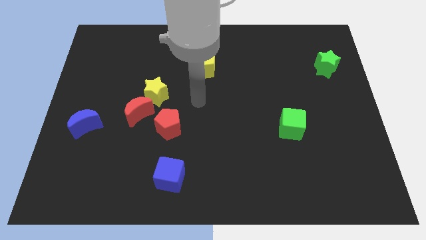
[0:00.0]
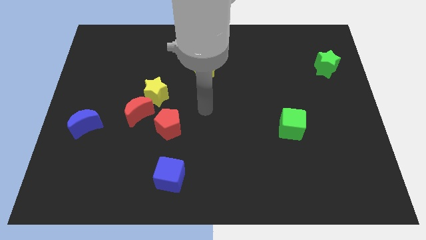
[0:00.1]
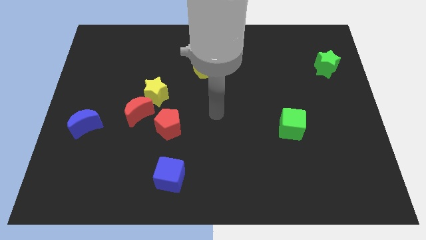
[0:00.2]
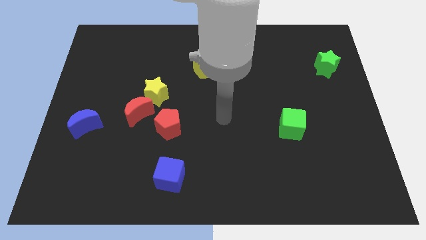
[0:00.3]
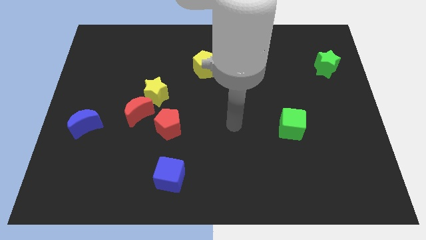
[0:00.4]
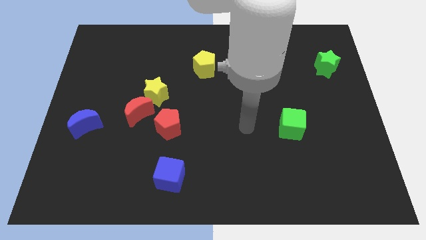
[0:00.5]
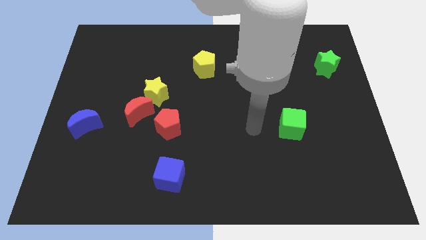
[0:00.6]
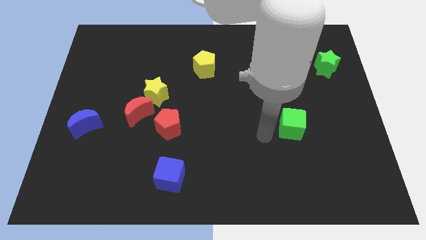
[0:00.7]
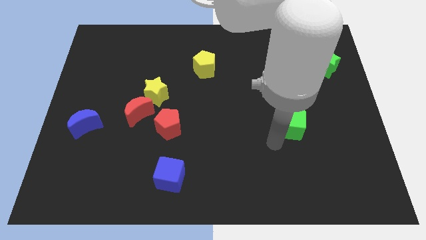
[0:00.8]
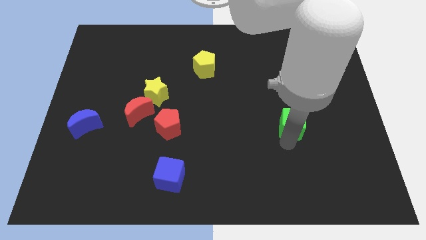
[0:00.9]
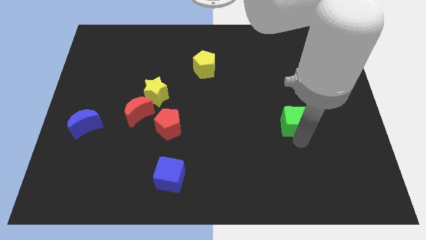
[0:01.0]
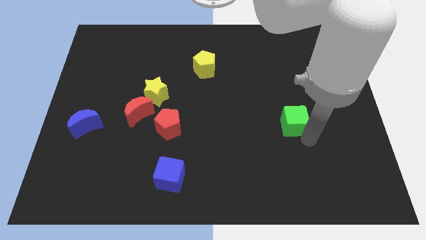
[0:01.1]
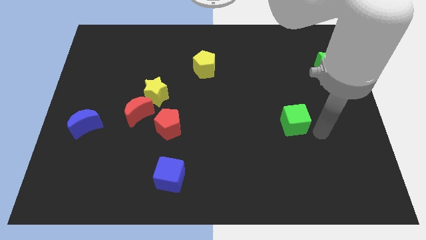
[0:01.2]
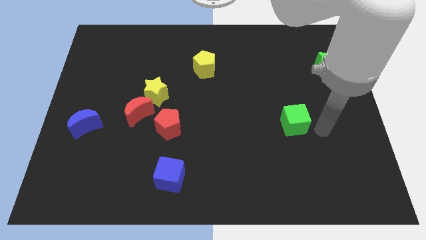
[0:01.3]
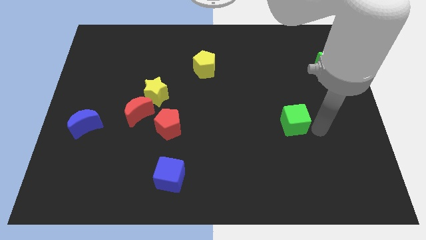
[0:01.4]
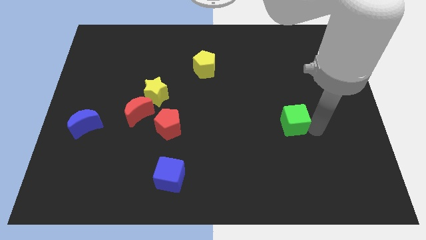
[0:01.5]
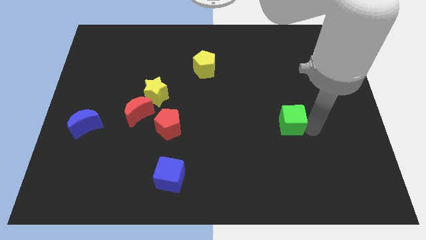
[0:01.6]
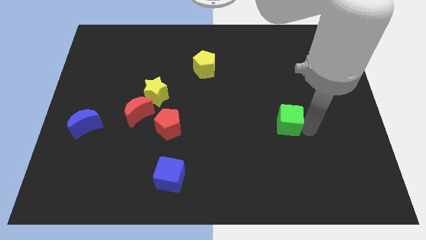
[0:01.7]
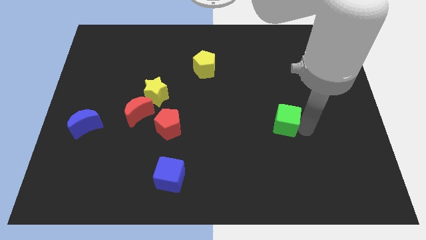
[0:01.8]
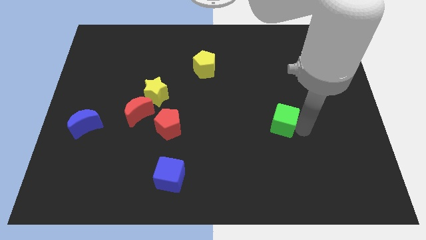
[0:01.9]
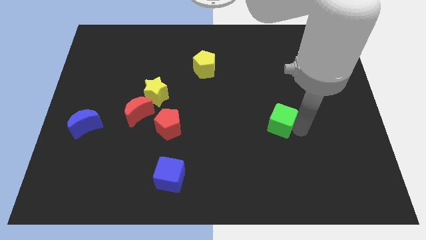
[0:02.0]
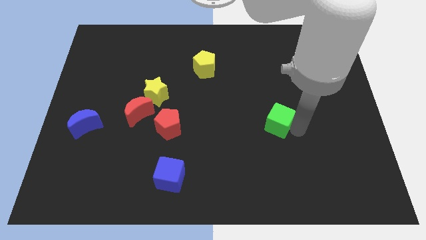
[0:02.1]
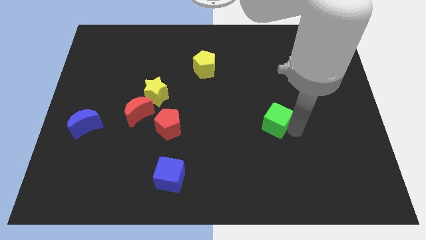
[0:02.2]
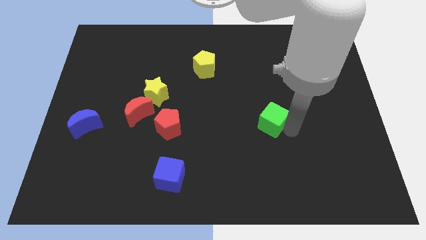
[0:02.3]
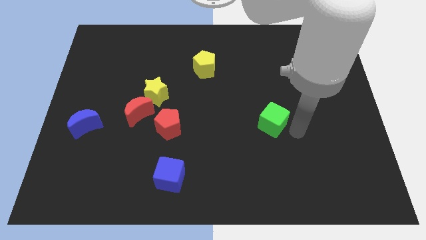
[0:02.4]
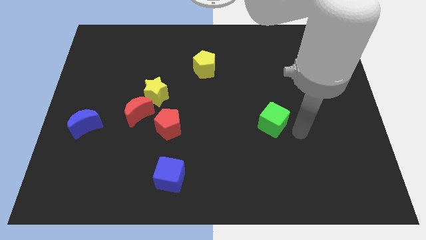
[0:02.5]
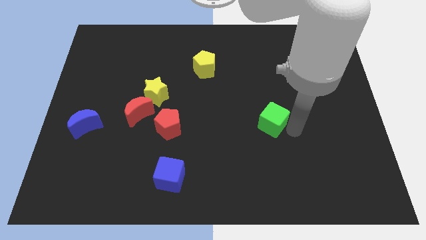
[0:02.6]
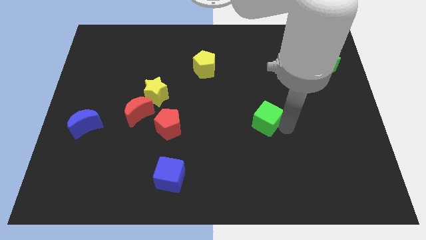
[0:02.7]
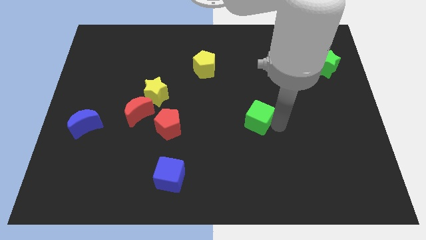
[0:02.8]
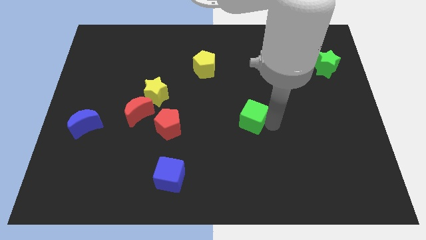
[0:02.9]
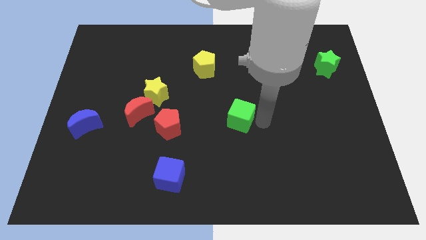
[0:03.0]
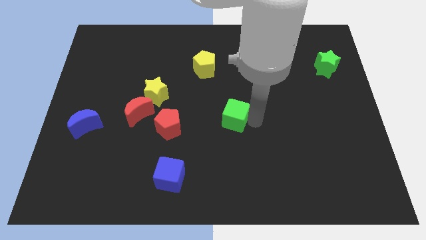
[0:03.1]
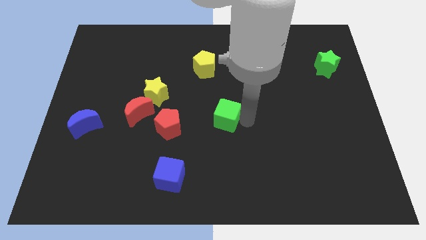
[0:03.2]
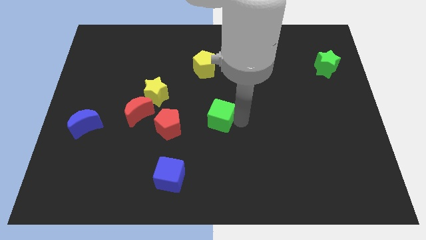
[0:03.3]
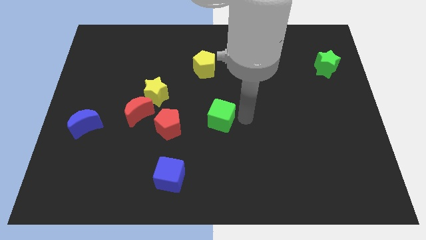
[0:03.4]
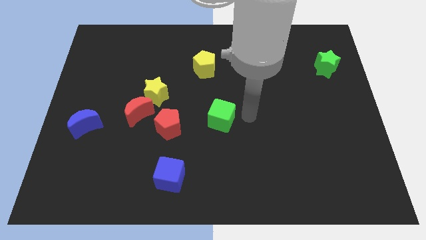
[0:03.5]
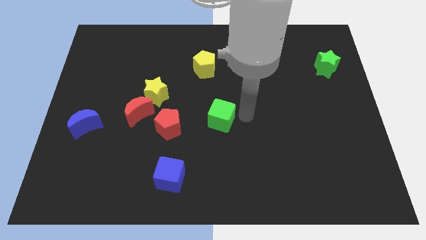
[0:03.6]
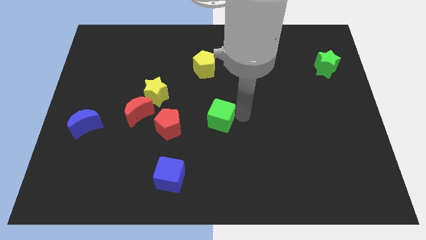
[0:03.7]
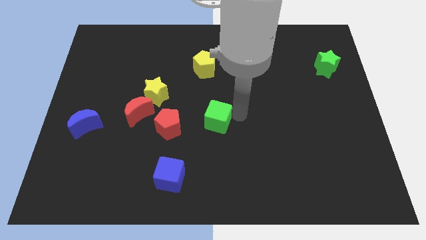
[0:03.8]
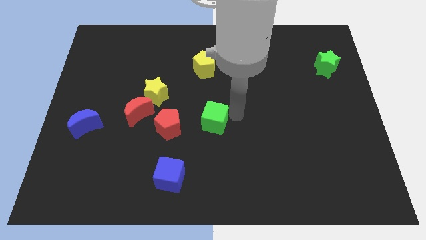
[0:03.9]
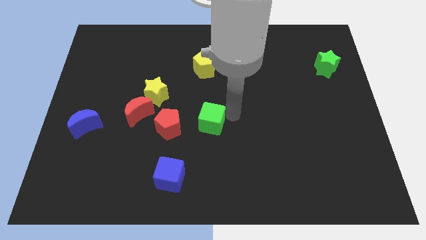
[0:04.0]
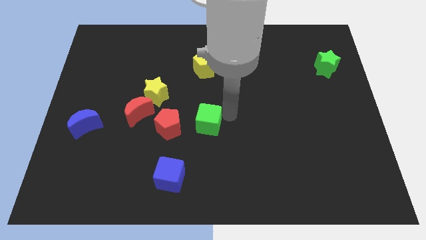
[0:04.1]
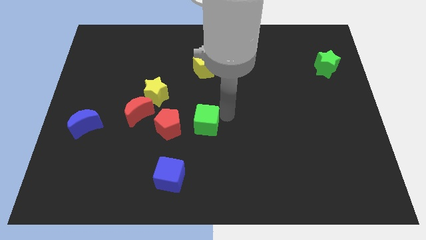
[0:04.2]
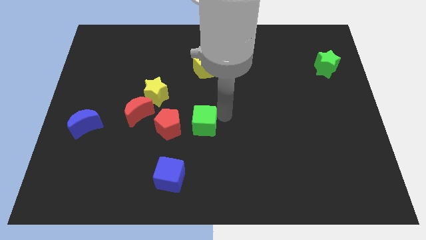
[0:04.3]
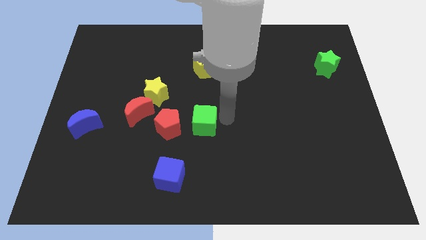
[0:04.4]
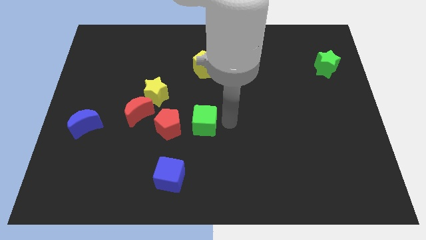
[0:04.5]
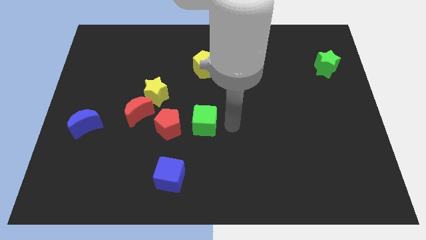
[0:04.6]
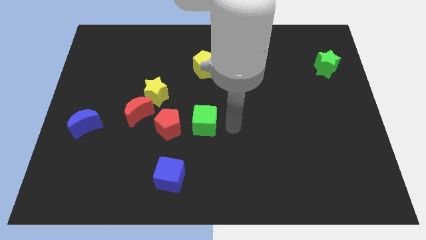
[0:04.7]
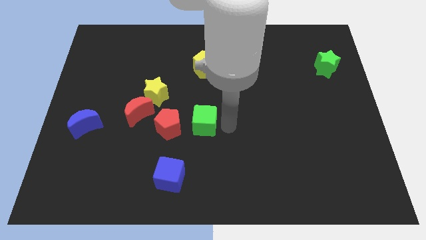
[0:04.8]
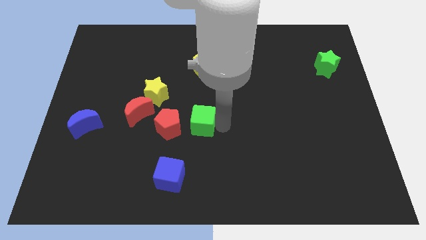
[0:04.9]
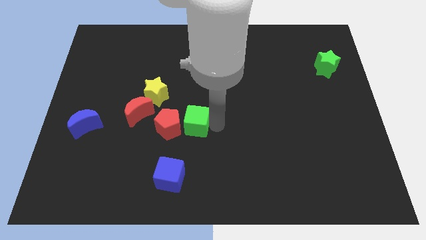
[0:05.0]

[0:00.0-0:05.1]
move the green cube next to the red pentagon

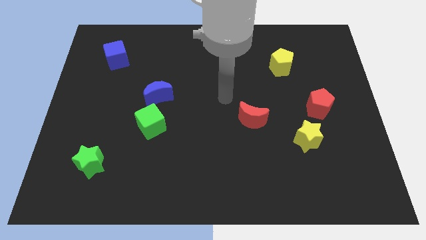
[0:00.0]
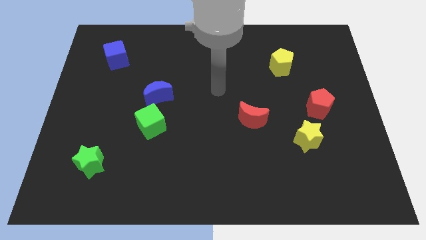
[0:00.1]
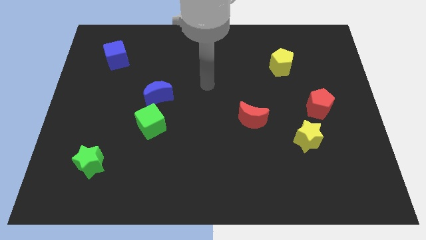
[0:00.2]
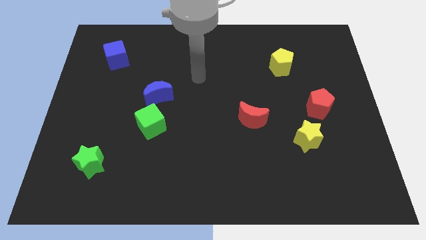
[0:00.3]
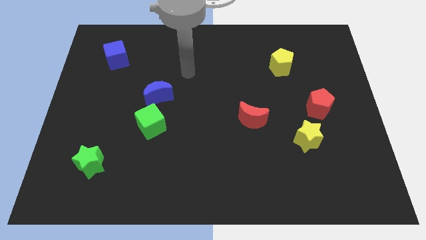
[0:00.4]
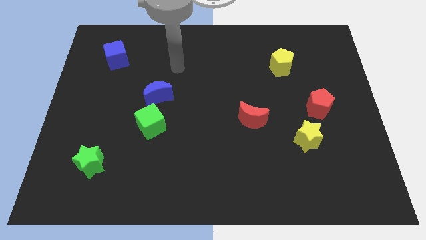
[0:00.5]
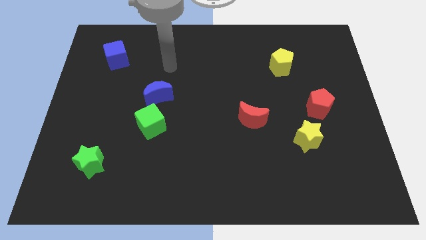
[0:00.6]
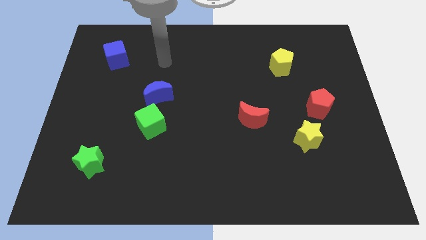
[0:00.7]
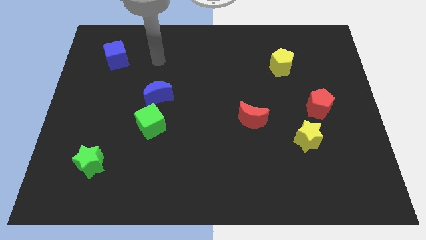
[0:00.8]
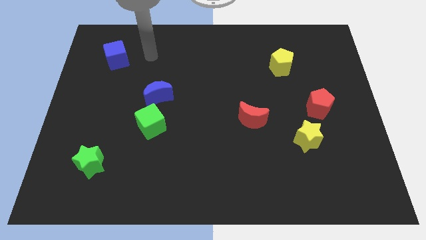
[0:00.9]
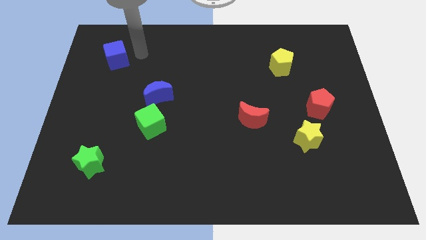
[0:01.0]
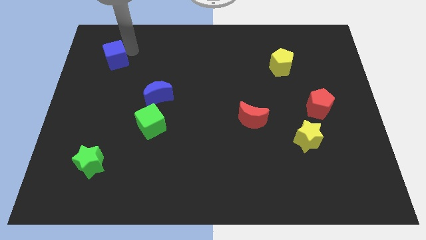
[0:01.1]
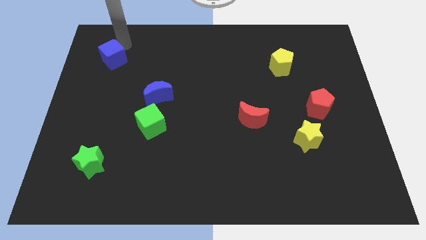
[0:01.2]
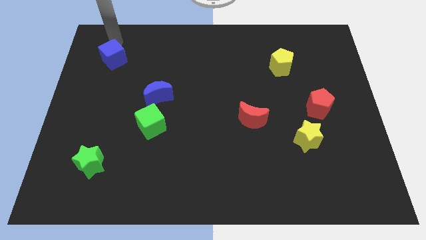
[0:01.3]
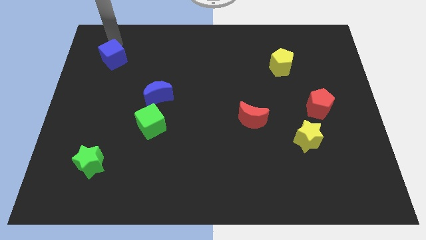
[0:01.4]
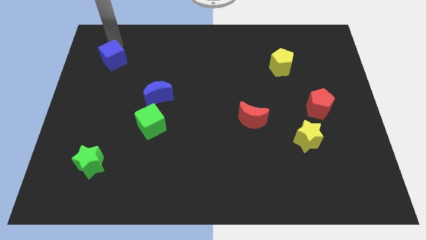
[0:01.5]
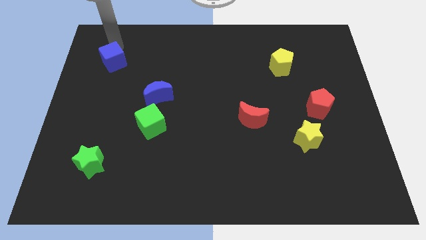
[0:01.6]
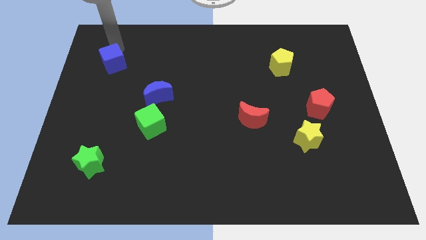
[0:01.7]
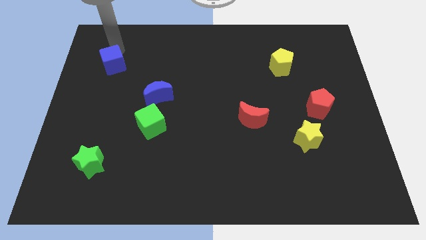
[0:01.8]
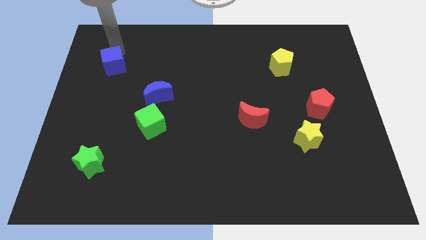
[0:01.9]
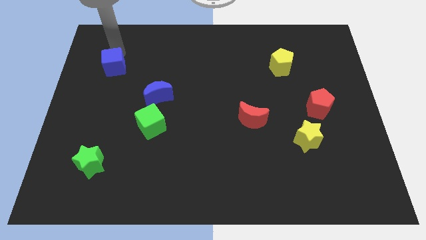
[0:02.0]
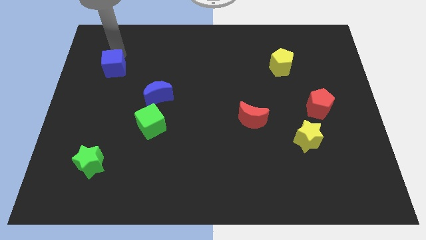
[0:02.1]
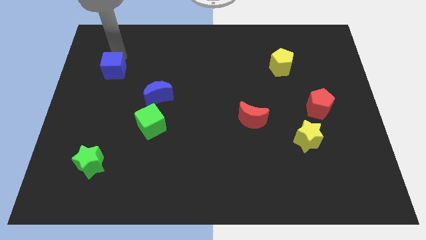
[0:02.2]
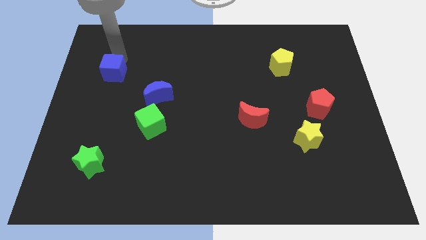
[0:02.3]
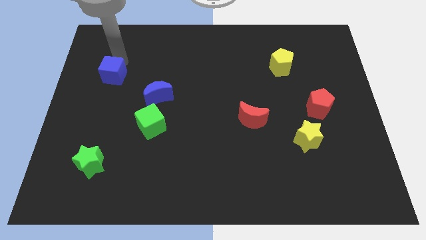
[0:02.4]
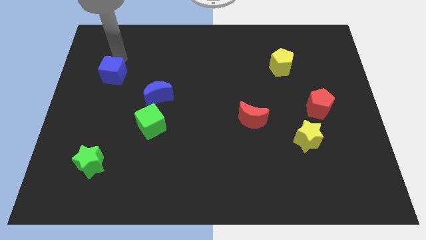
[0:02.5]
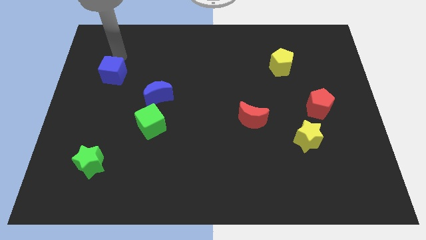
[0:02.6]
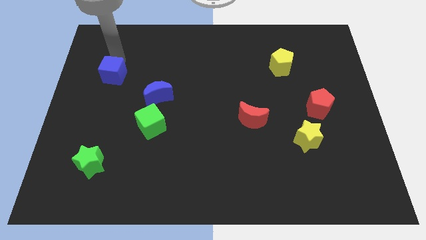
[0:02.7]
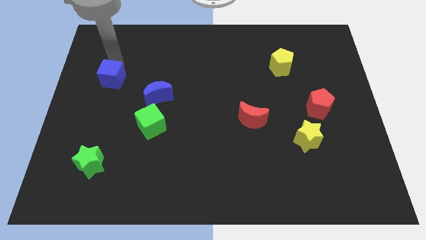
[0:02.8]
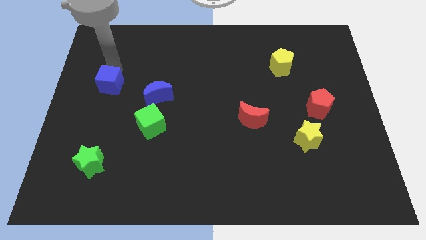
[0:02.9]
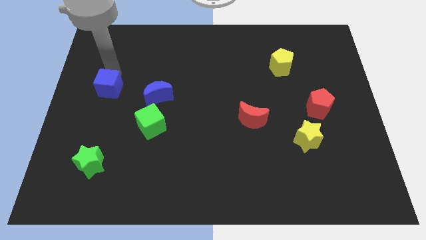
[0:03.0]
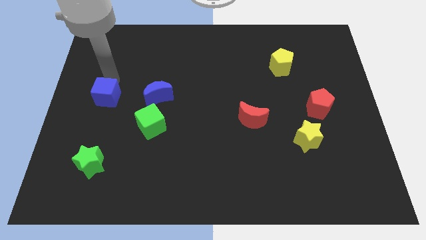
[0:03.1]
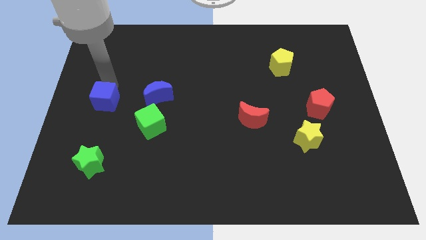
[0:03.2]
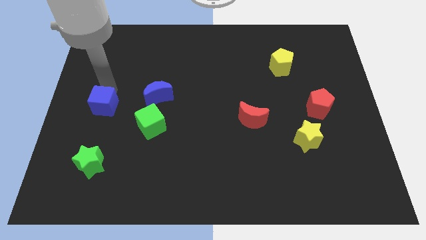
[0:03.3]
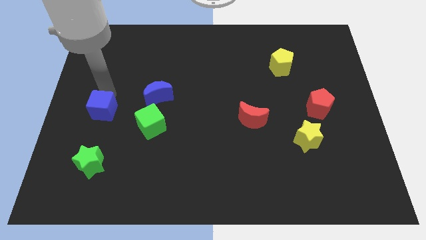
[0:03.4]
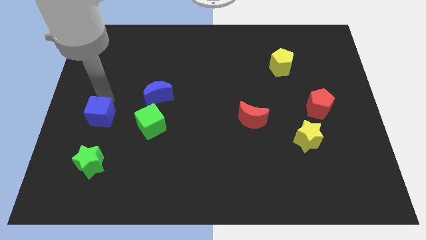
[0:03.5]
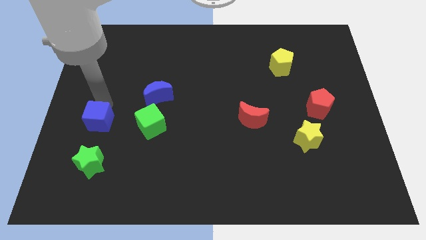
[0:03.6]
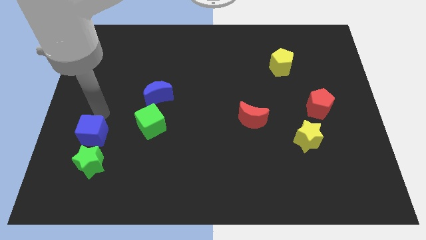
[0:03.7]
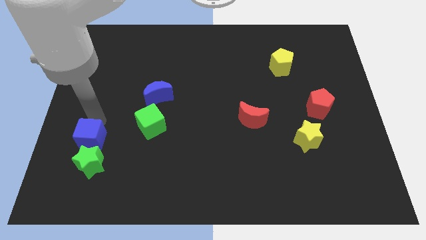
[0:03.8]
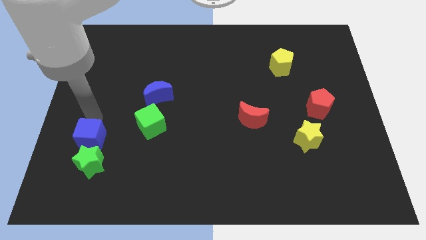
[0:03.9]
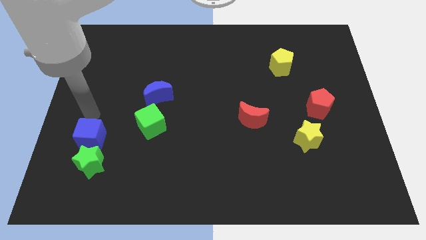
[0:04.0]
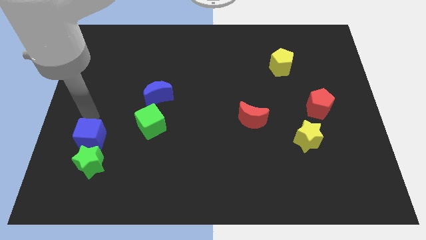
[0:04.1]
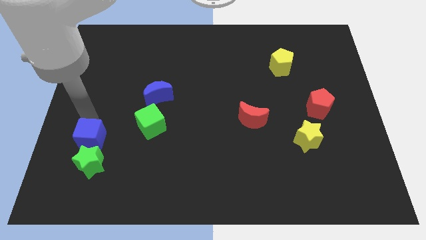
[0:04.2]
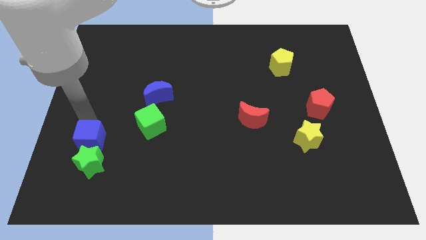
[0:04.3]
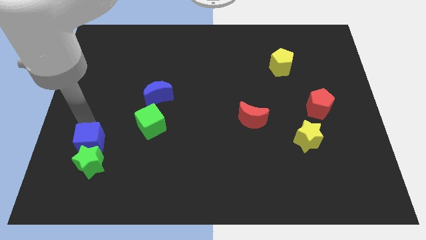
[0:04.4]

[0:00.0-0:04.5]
push the blue cube close to the green star
